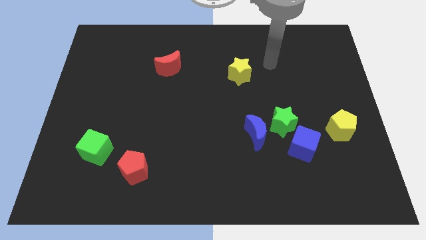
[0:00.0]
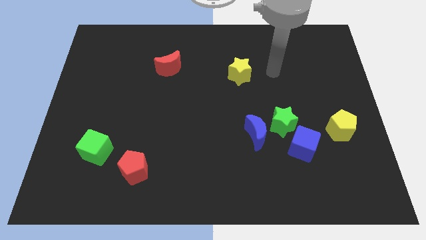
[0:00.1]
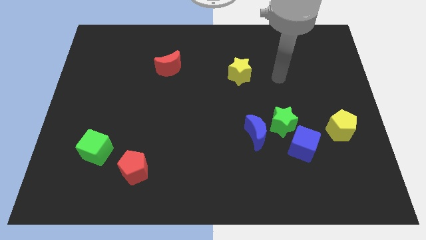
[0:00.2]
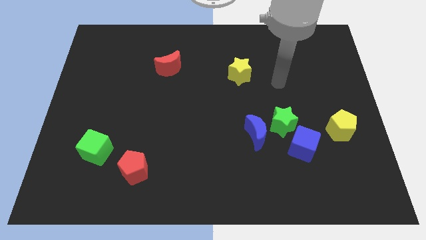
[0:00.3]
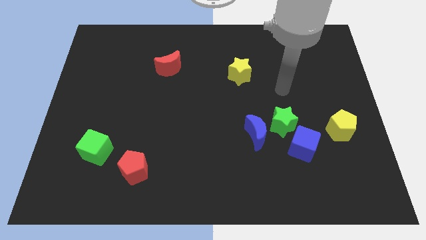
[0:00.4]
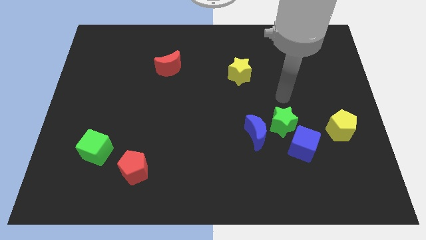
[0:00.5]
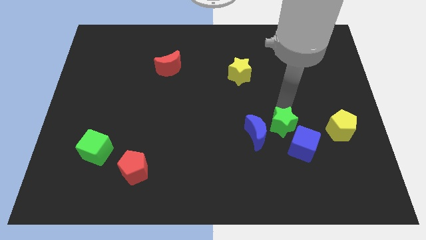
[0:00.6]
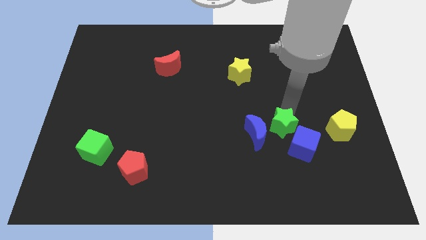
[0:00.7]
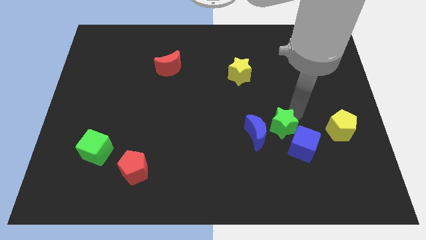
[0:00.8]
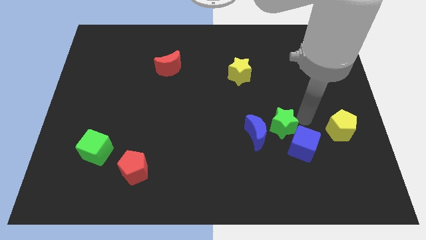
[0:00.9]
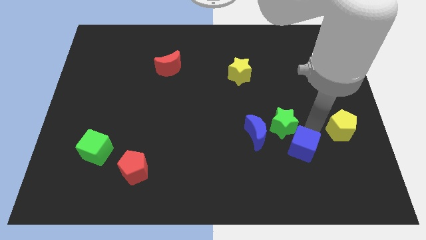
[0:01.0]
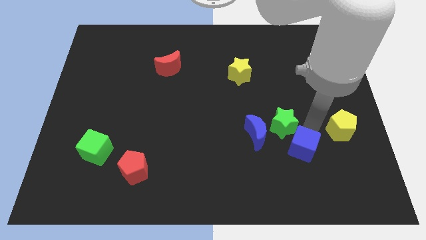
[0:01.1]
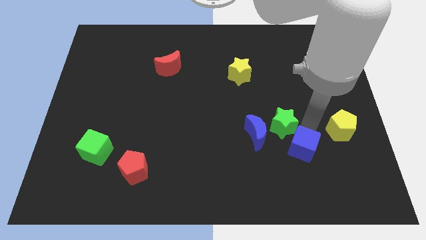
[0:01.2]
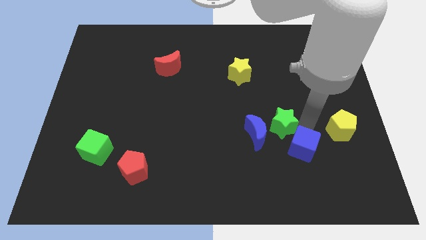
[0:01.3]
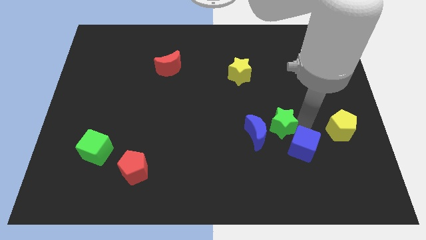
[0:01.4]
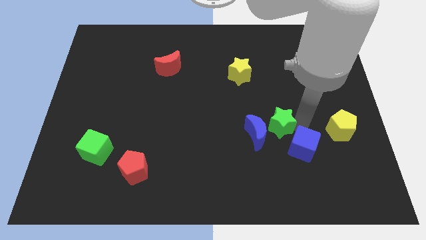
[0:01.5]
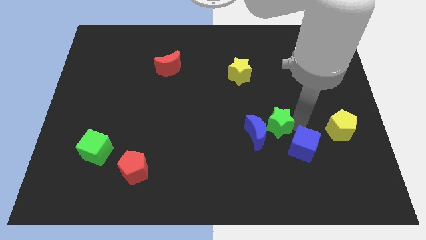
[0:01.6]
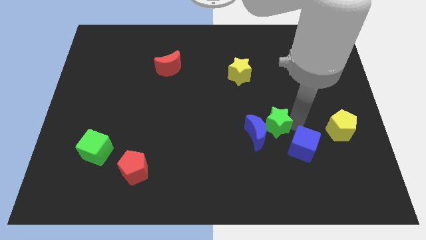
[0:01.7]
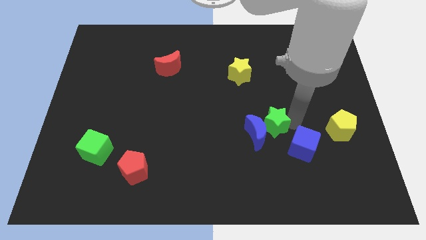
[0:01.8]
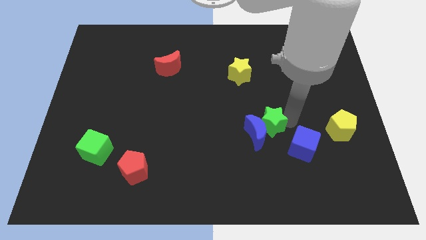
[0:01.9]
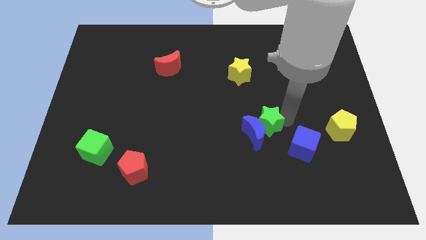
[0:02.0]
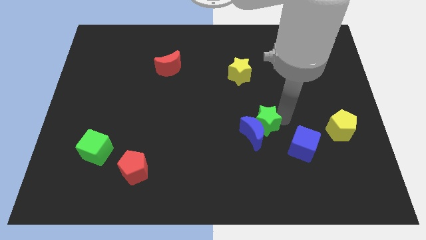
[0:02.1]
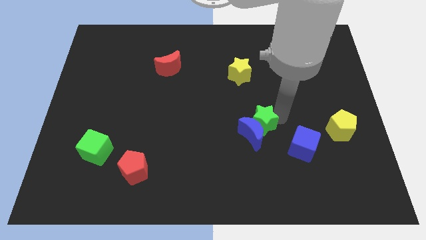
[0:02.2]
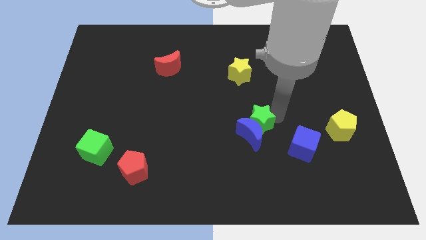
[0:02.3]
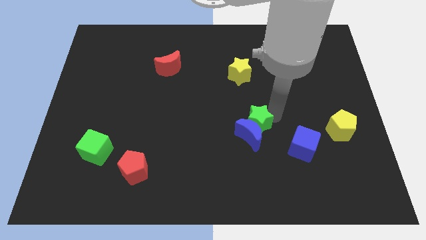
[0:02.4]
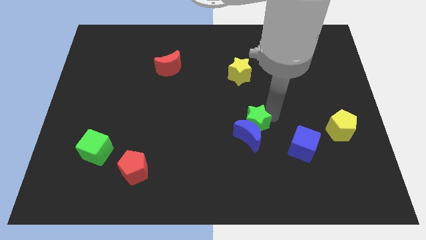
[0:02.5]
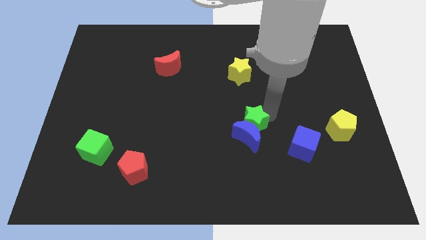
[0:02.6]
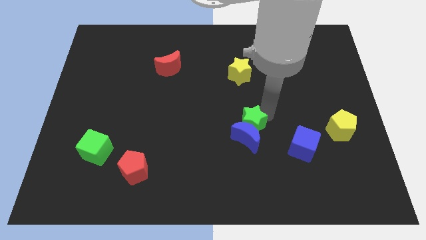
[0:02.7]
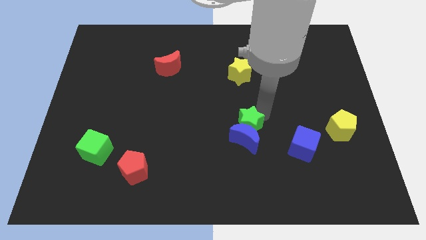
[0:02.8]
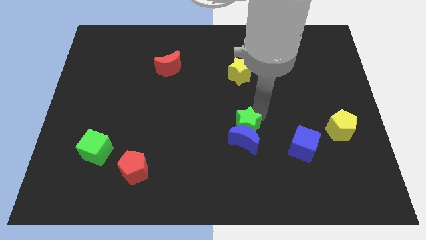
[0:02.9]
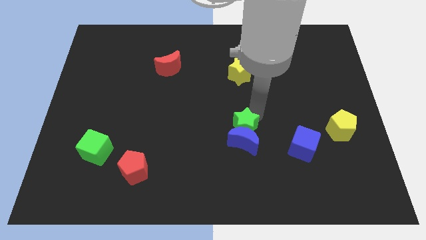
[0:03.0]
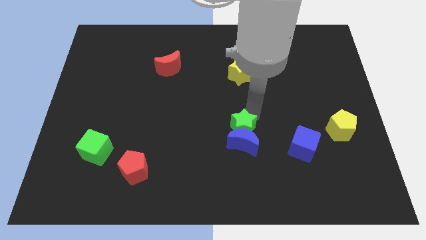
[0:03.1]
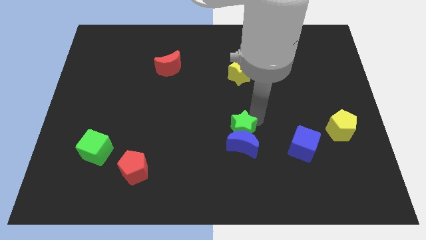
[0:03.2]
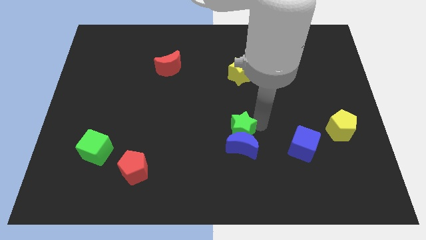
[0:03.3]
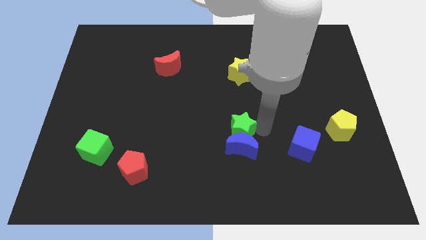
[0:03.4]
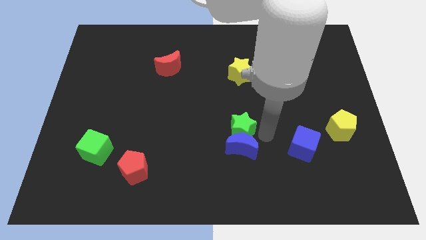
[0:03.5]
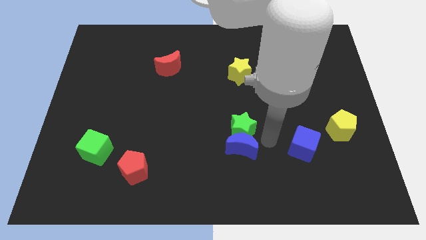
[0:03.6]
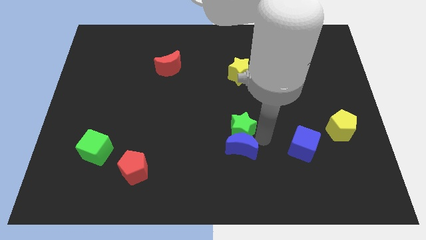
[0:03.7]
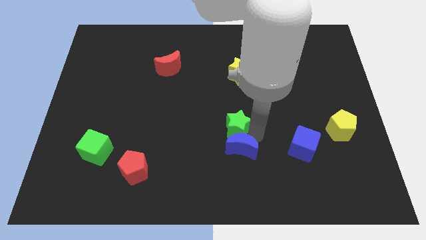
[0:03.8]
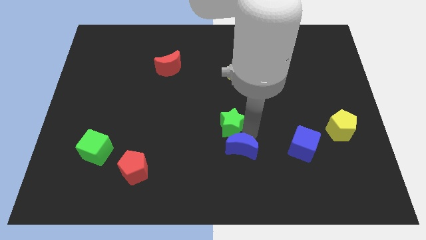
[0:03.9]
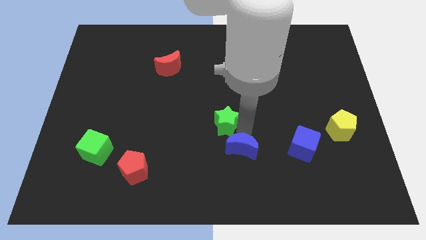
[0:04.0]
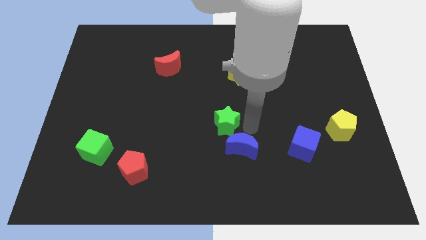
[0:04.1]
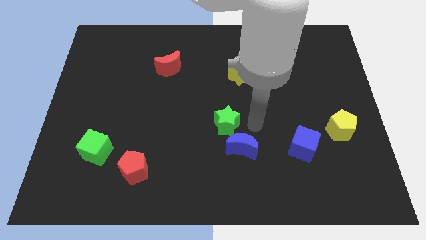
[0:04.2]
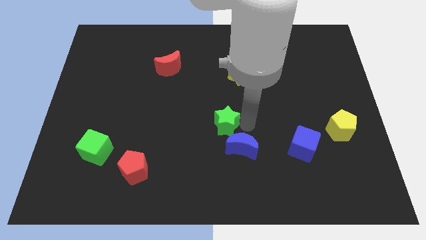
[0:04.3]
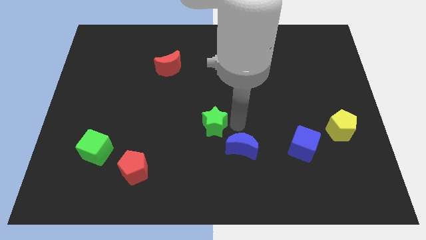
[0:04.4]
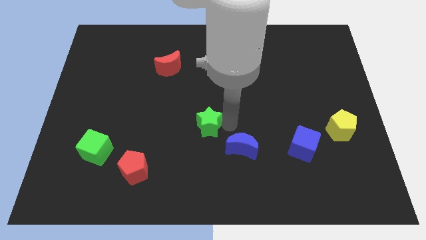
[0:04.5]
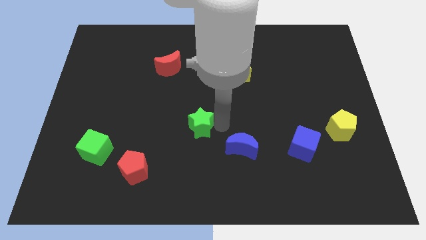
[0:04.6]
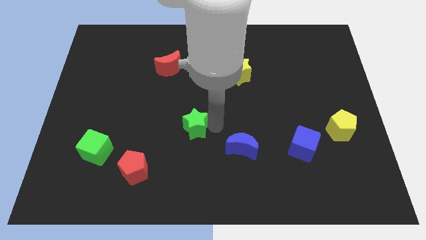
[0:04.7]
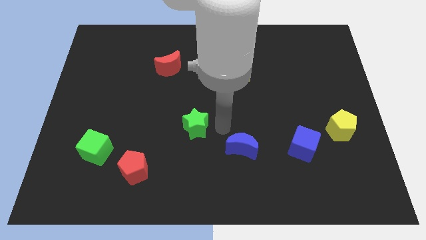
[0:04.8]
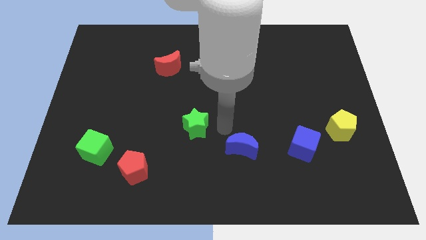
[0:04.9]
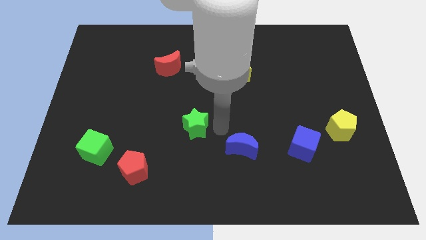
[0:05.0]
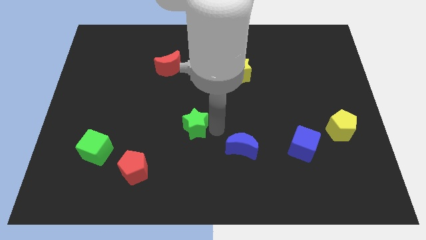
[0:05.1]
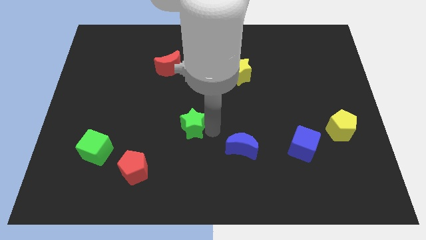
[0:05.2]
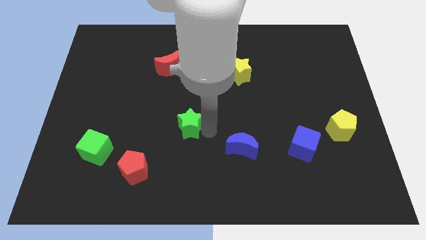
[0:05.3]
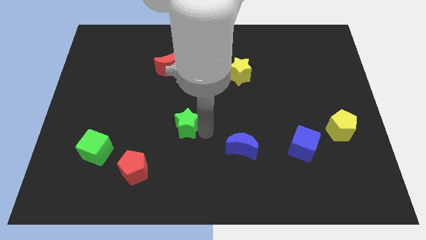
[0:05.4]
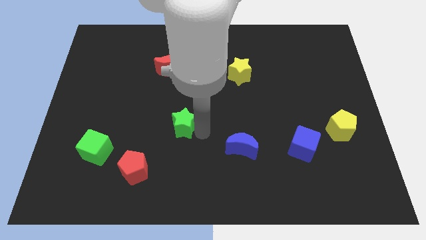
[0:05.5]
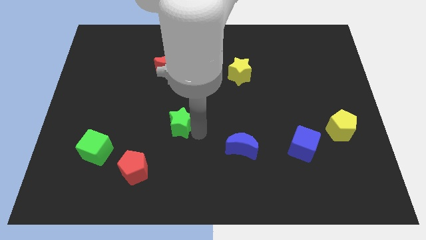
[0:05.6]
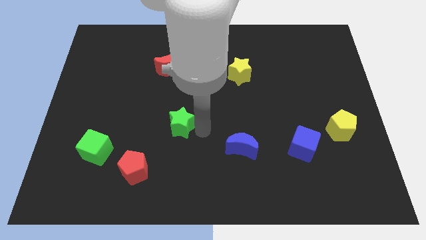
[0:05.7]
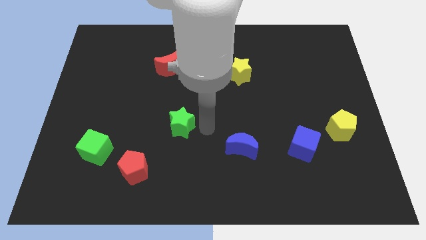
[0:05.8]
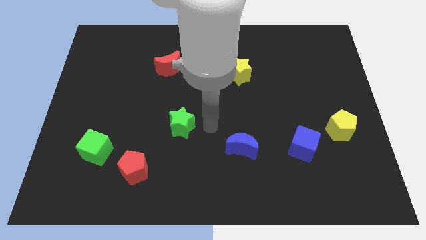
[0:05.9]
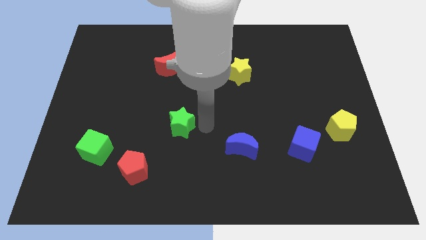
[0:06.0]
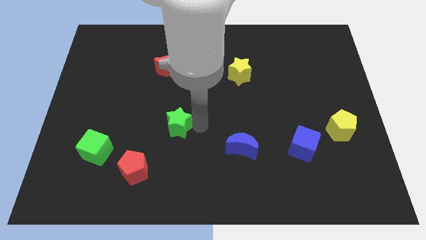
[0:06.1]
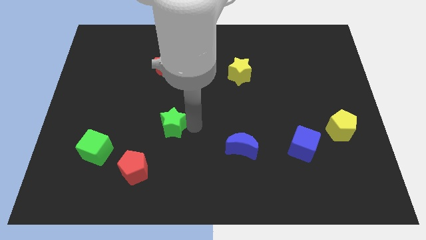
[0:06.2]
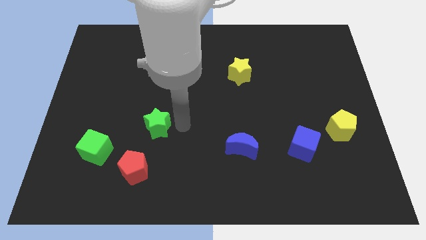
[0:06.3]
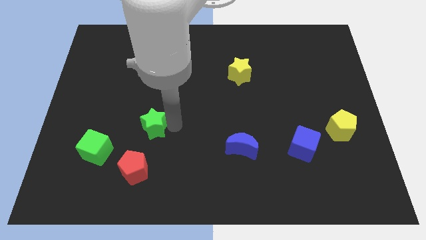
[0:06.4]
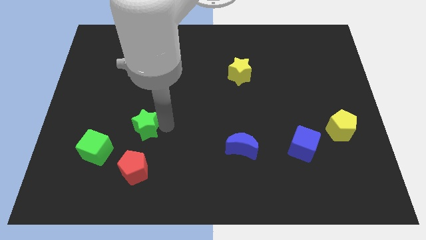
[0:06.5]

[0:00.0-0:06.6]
push the green star diagonally up and to the right of the green cube

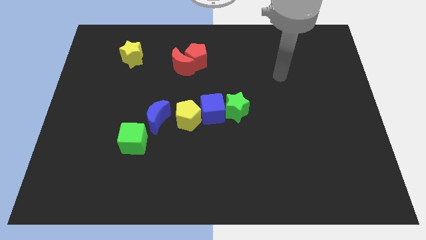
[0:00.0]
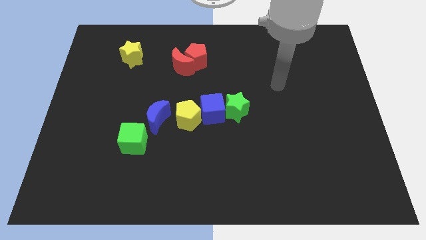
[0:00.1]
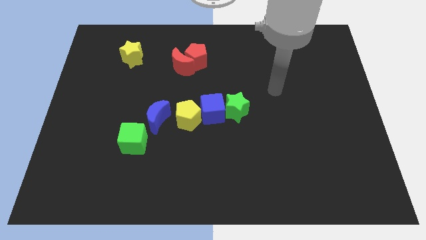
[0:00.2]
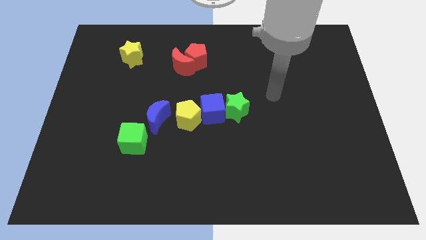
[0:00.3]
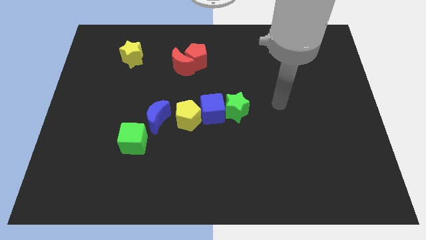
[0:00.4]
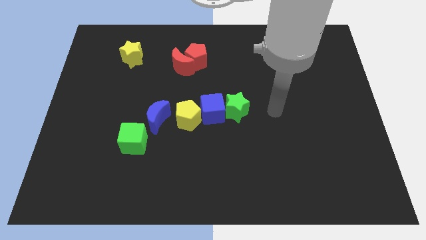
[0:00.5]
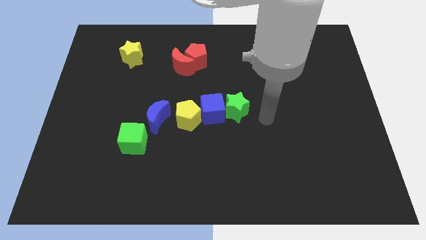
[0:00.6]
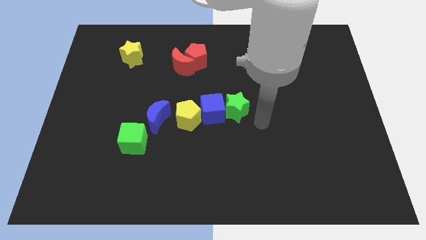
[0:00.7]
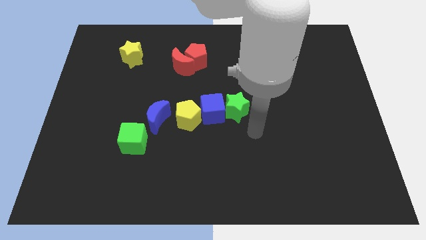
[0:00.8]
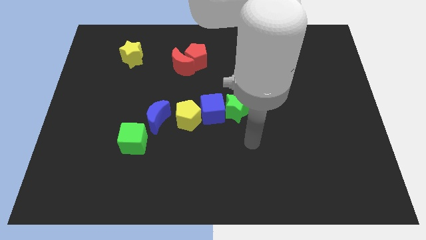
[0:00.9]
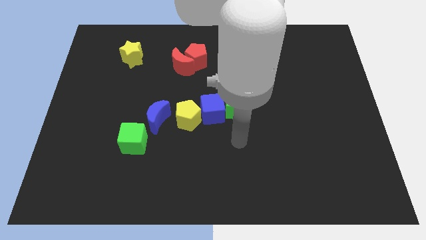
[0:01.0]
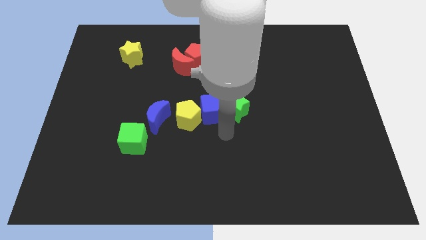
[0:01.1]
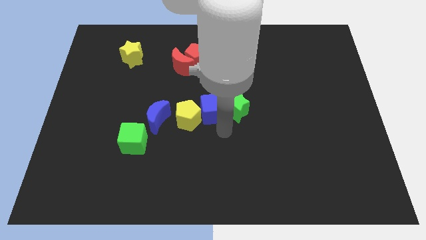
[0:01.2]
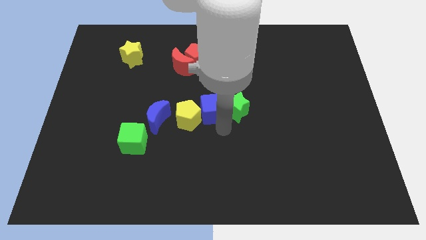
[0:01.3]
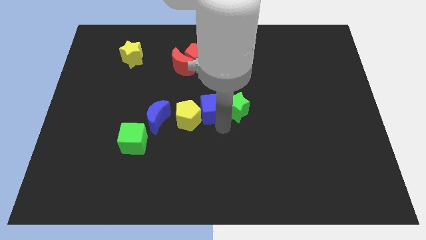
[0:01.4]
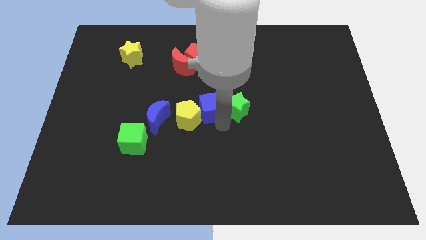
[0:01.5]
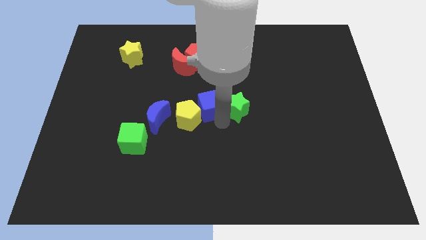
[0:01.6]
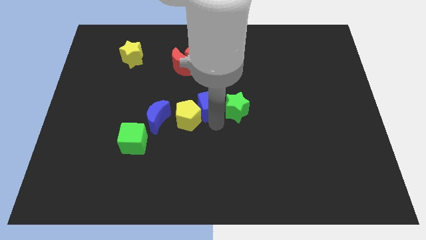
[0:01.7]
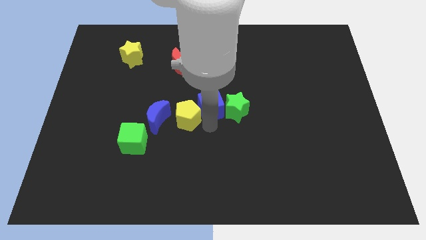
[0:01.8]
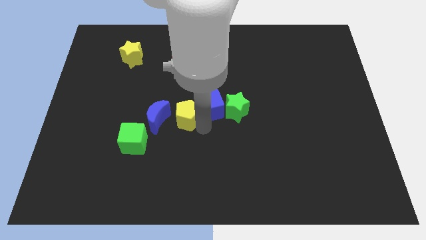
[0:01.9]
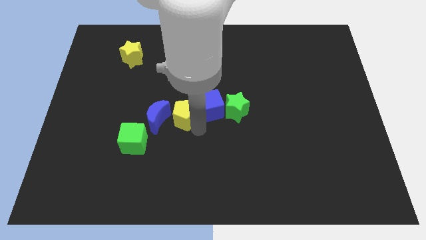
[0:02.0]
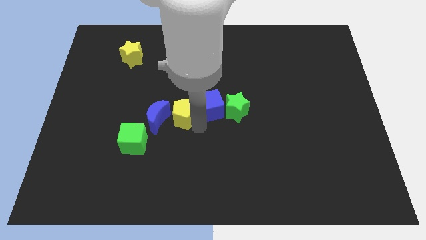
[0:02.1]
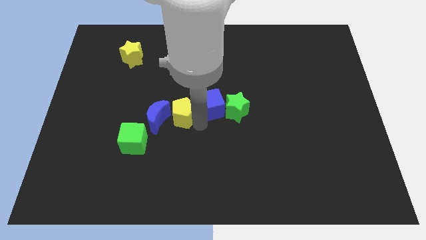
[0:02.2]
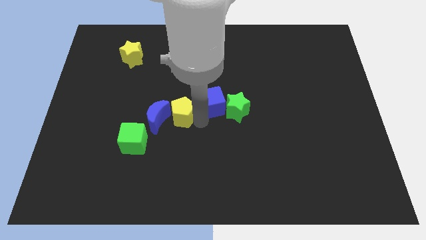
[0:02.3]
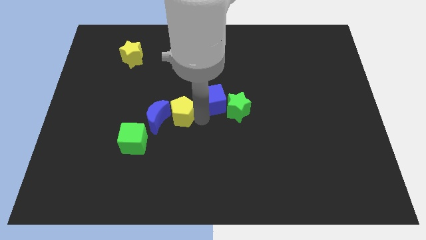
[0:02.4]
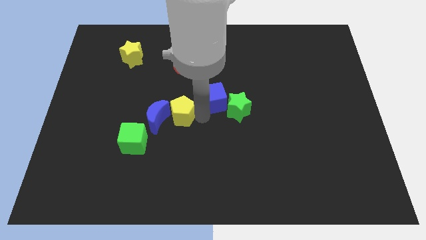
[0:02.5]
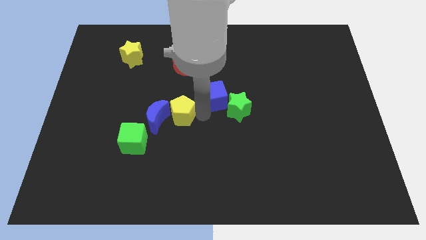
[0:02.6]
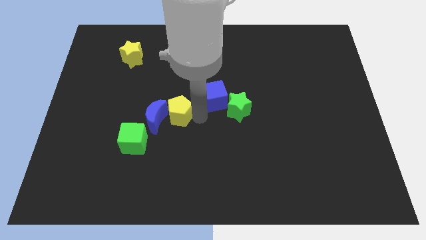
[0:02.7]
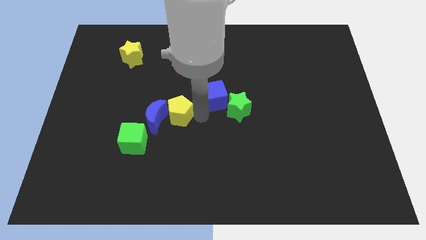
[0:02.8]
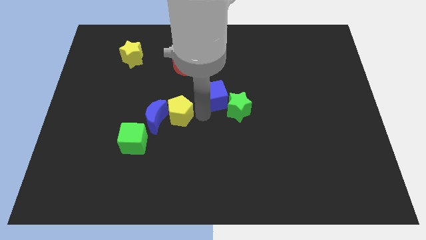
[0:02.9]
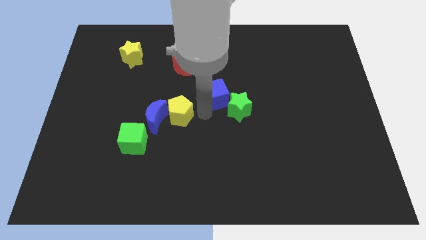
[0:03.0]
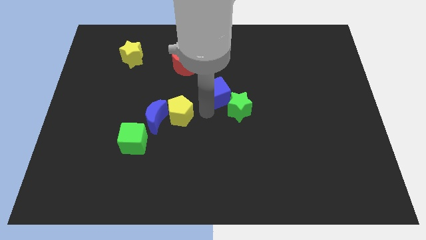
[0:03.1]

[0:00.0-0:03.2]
slide the blue cube to the top side of the green star
